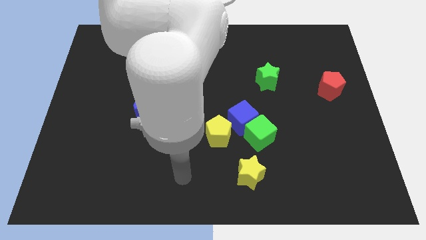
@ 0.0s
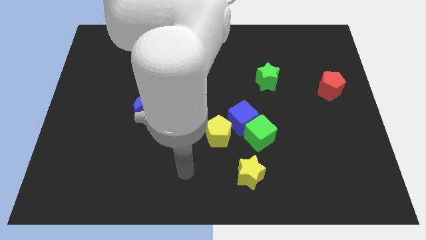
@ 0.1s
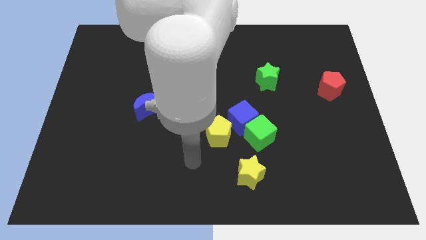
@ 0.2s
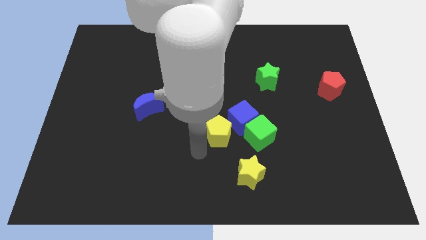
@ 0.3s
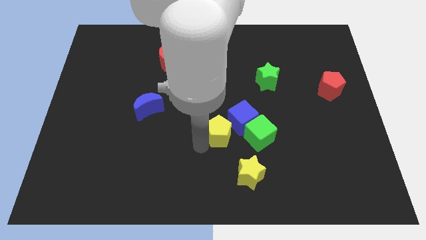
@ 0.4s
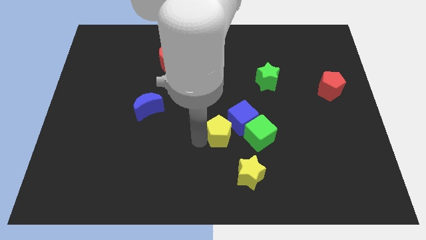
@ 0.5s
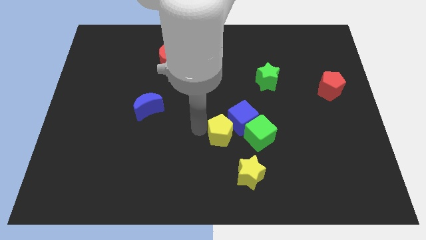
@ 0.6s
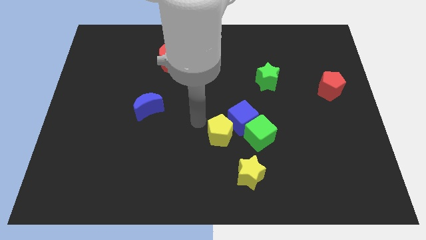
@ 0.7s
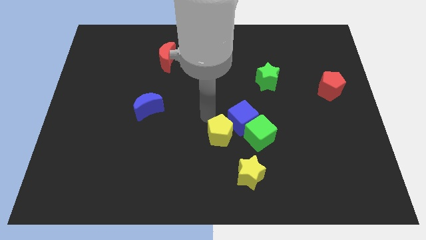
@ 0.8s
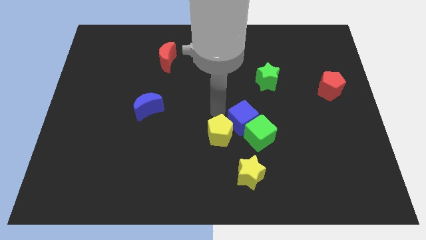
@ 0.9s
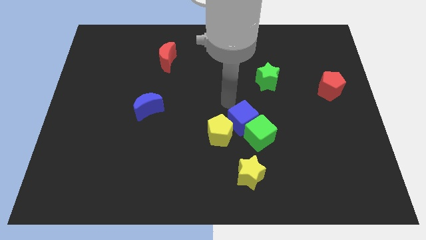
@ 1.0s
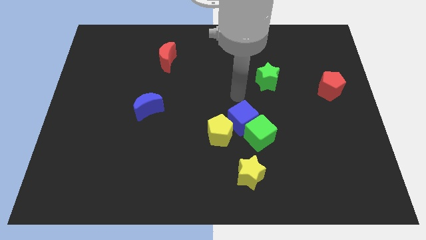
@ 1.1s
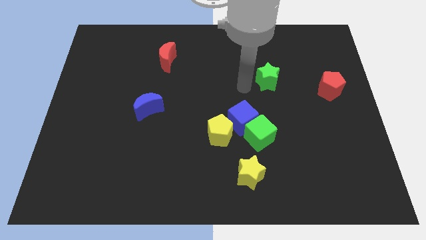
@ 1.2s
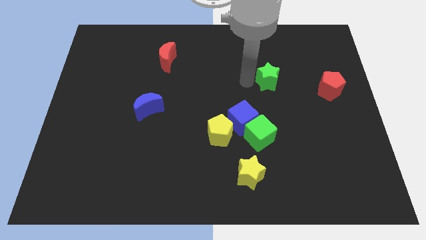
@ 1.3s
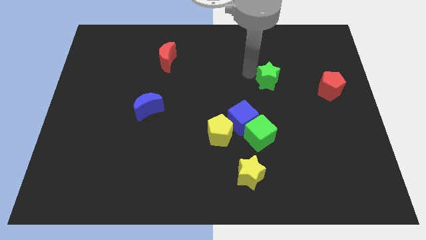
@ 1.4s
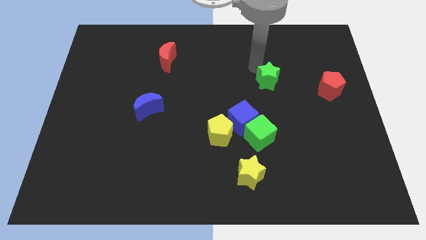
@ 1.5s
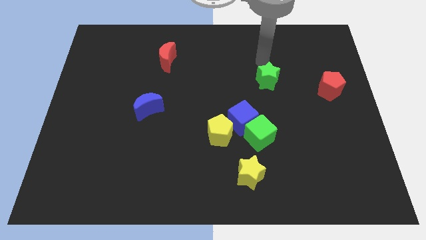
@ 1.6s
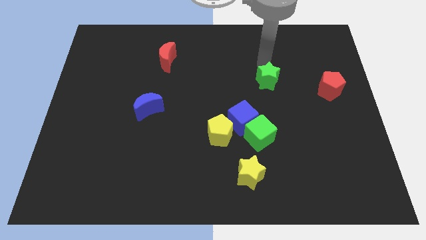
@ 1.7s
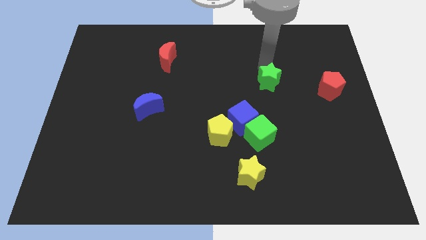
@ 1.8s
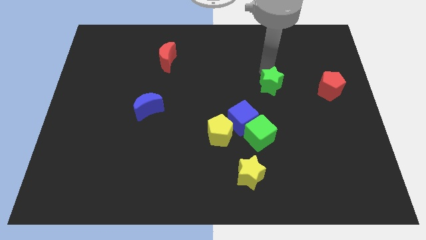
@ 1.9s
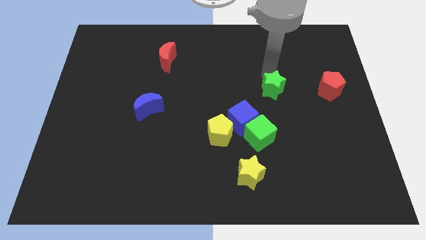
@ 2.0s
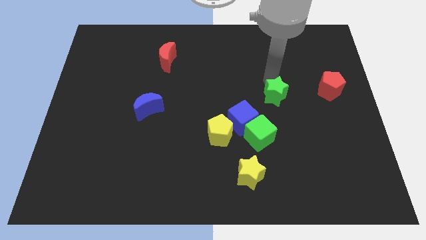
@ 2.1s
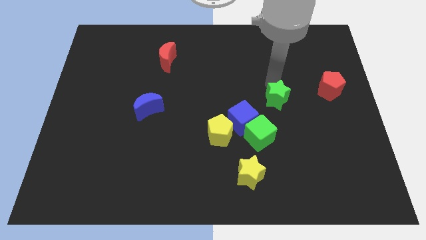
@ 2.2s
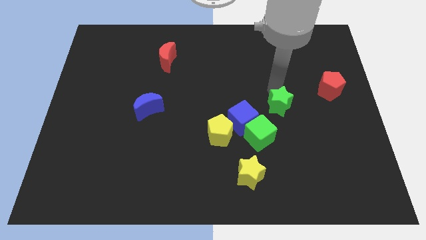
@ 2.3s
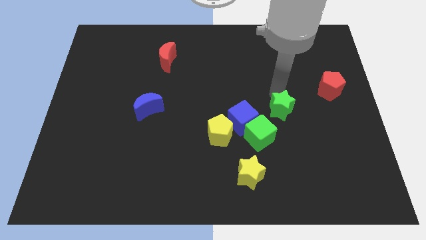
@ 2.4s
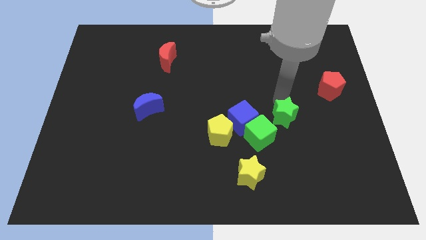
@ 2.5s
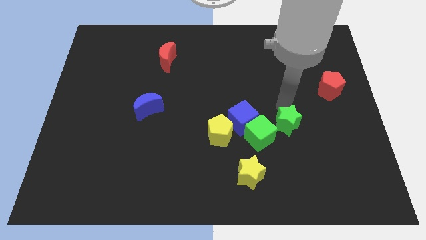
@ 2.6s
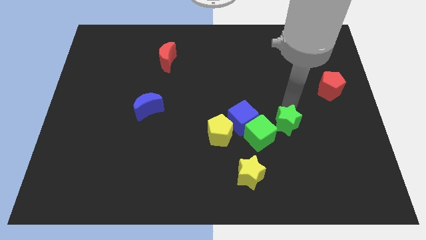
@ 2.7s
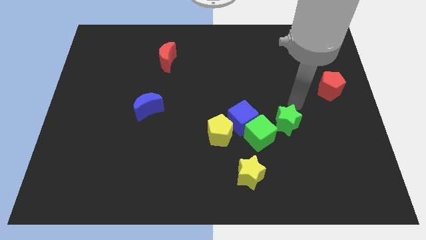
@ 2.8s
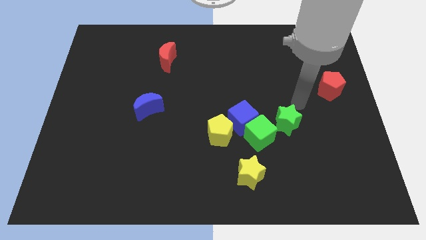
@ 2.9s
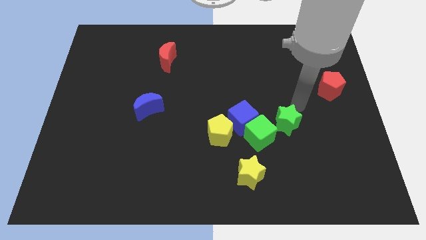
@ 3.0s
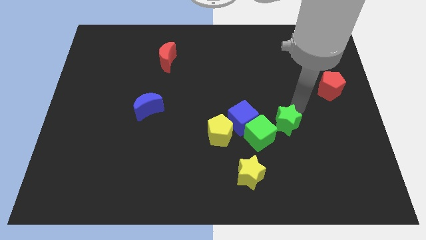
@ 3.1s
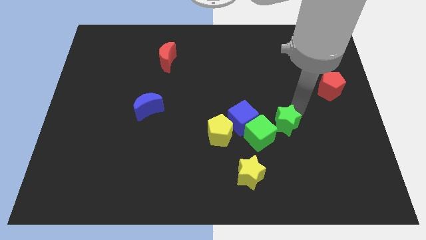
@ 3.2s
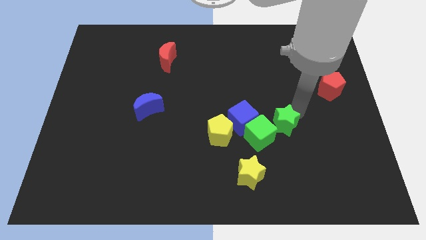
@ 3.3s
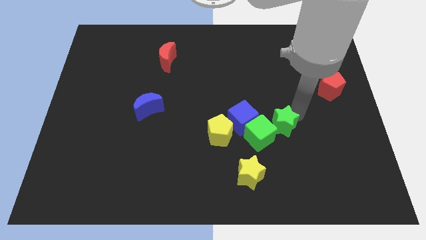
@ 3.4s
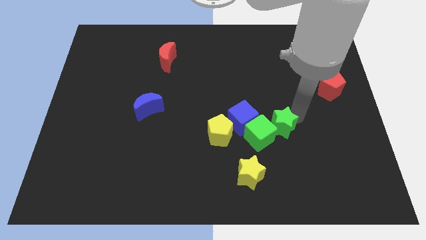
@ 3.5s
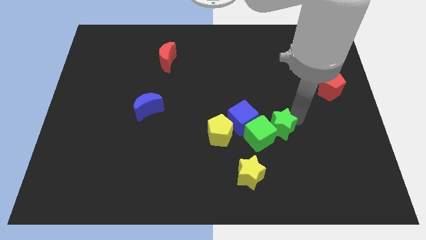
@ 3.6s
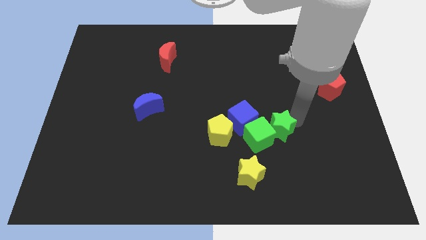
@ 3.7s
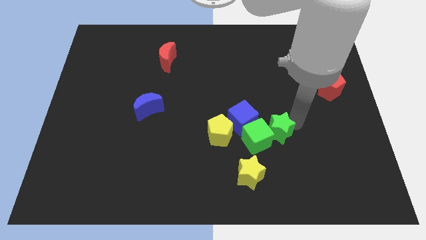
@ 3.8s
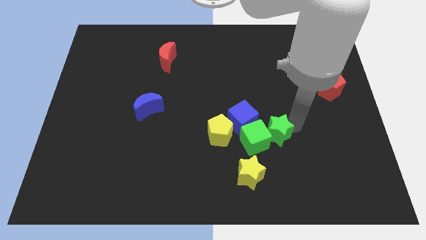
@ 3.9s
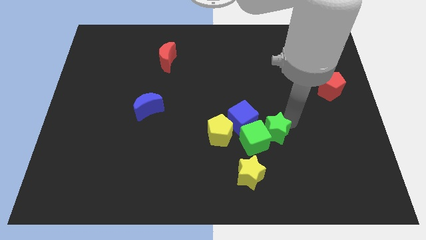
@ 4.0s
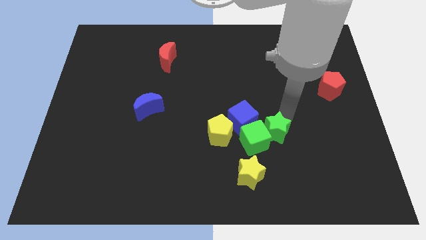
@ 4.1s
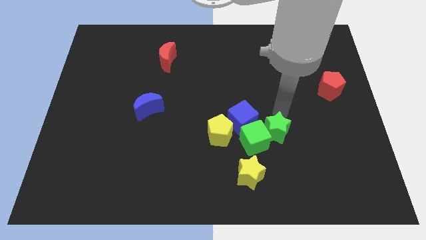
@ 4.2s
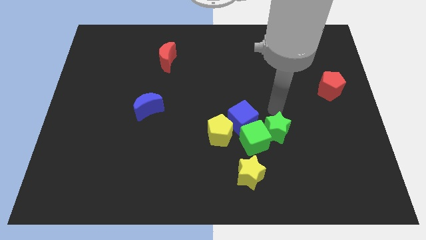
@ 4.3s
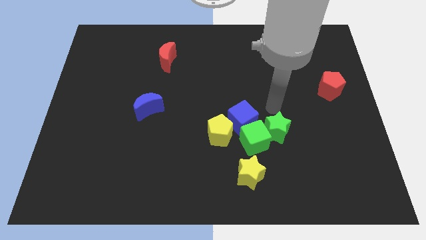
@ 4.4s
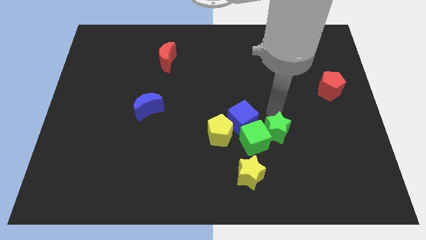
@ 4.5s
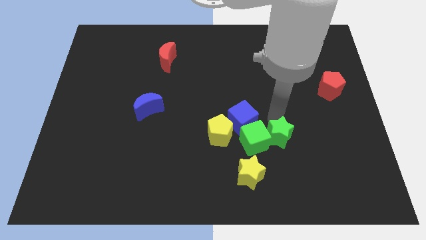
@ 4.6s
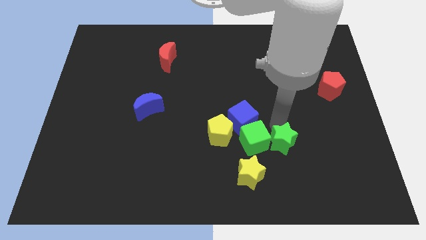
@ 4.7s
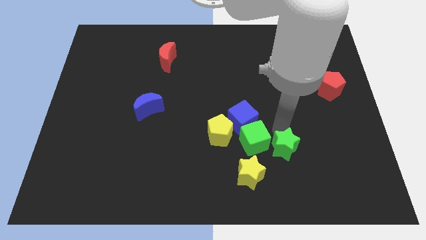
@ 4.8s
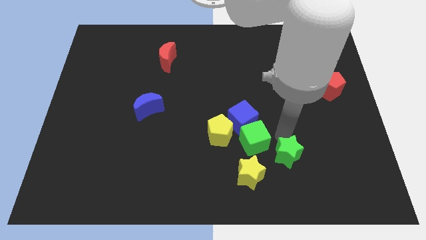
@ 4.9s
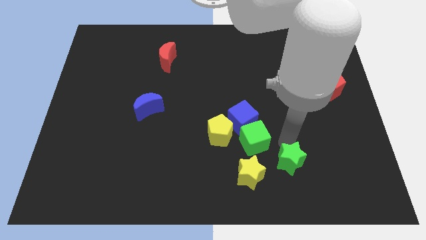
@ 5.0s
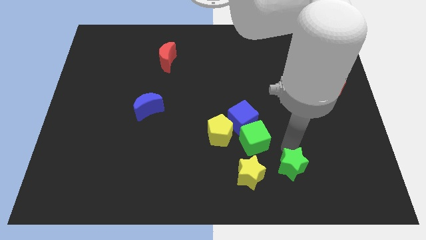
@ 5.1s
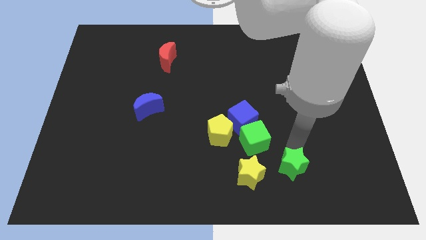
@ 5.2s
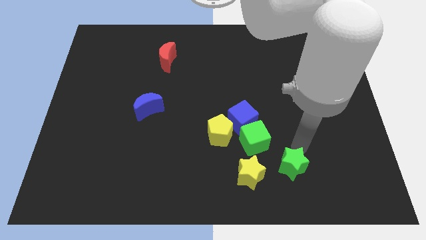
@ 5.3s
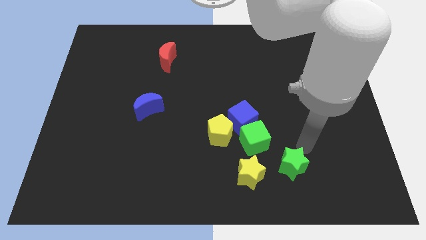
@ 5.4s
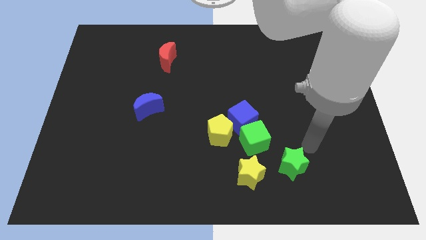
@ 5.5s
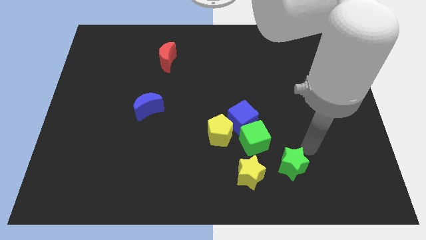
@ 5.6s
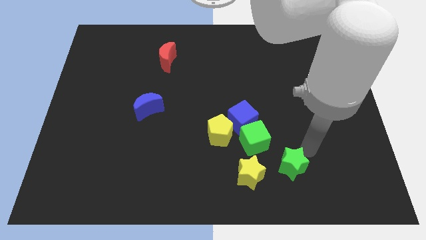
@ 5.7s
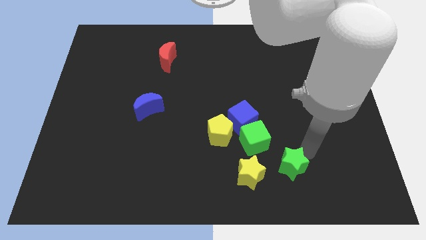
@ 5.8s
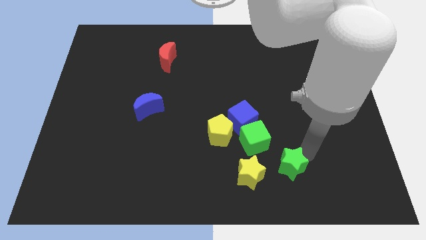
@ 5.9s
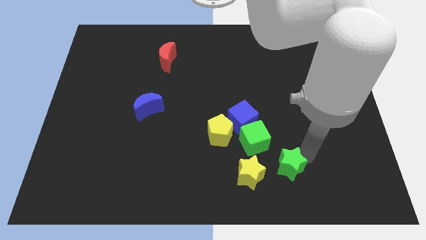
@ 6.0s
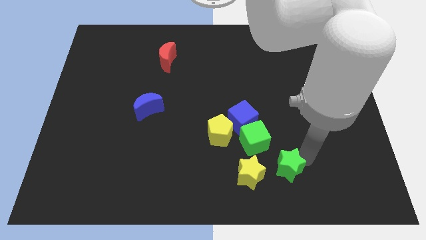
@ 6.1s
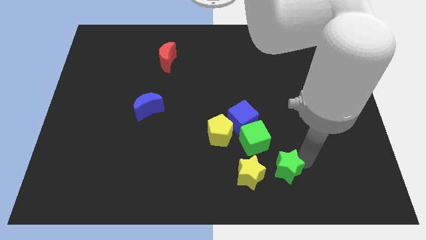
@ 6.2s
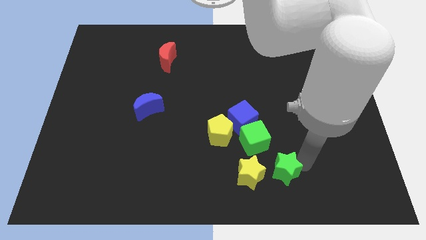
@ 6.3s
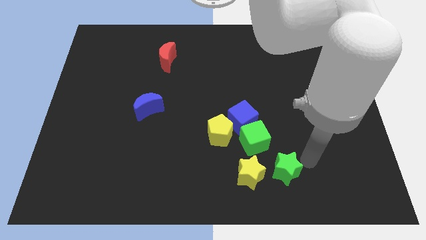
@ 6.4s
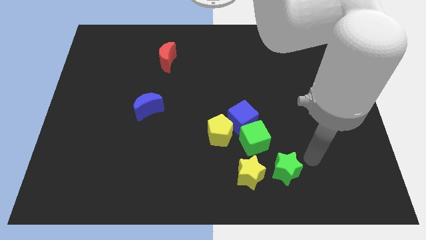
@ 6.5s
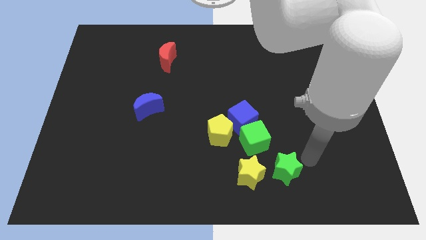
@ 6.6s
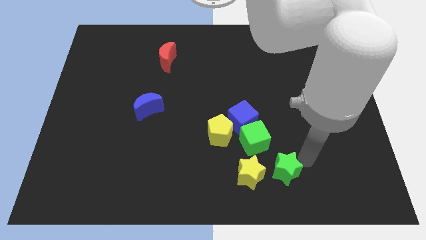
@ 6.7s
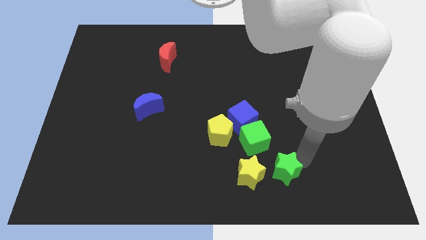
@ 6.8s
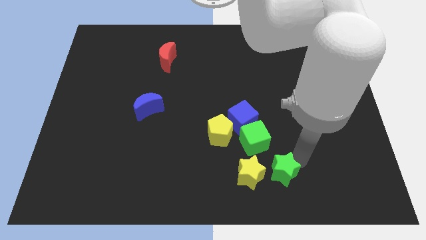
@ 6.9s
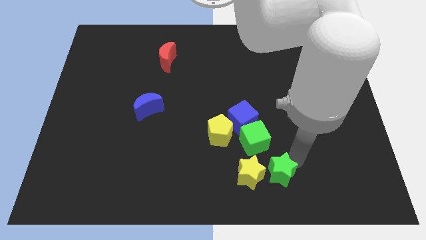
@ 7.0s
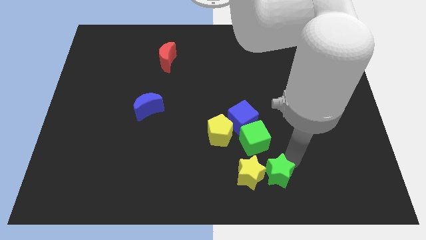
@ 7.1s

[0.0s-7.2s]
push the green star to the bottom of the green cube
